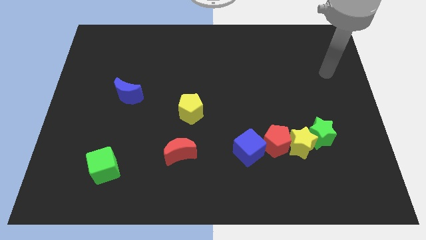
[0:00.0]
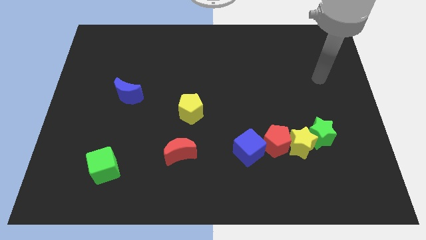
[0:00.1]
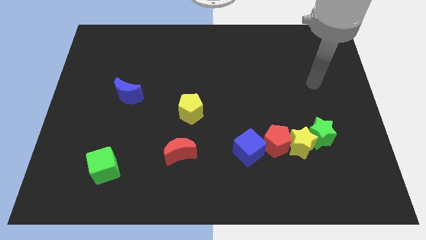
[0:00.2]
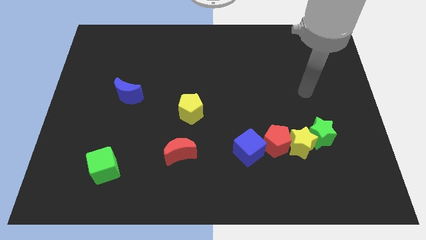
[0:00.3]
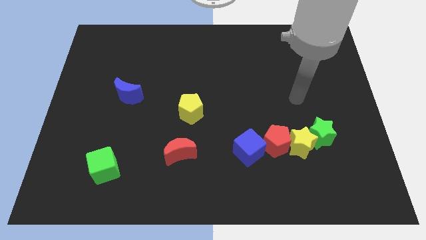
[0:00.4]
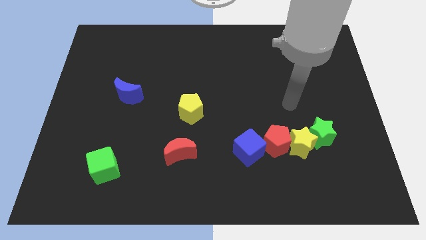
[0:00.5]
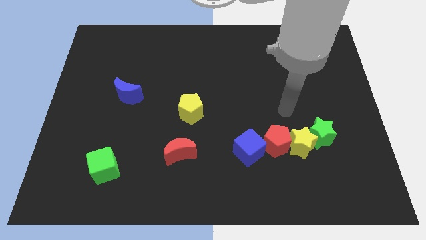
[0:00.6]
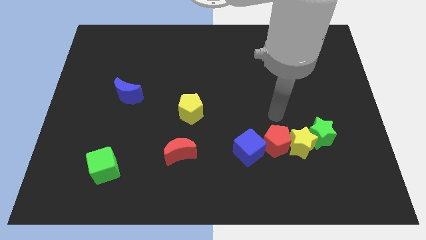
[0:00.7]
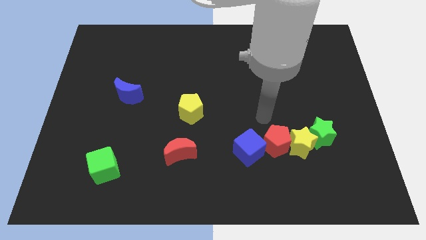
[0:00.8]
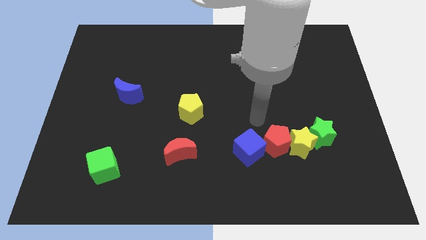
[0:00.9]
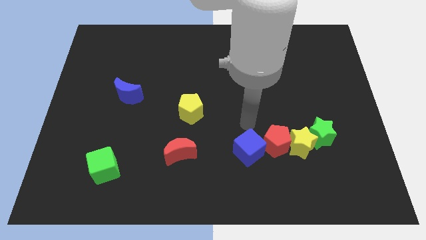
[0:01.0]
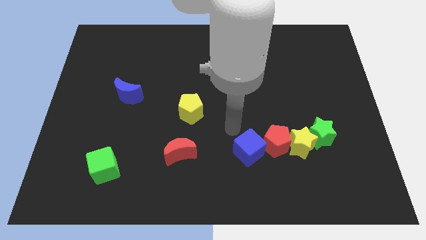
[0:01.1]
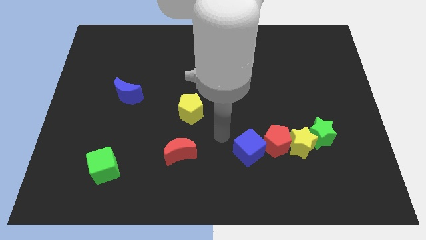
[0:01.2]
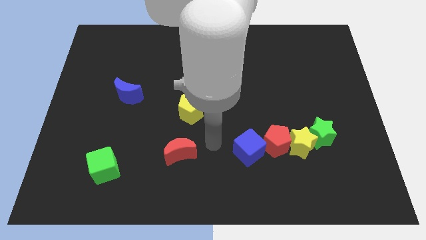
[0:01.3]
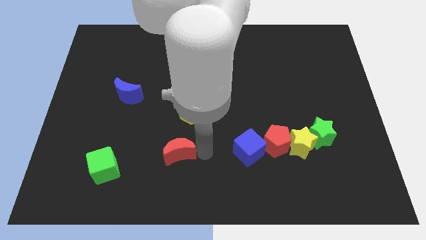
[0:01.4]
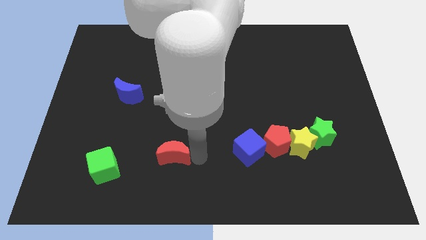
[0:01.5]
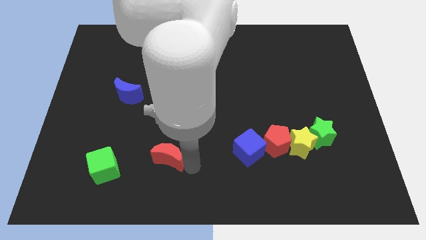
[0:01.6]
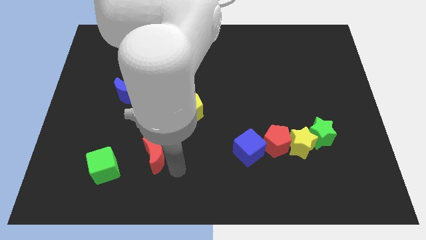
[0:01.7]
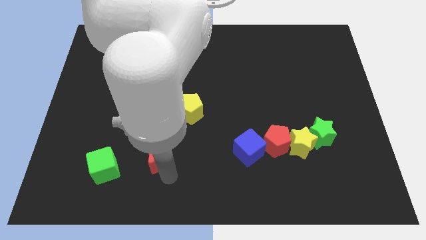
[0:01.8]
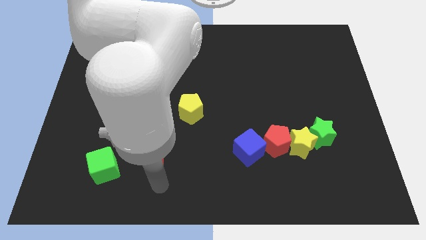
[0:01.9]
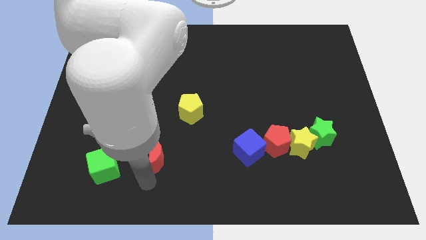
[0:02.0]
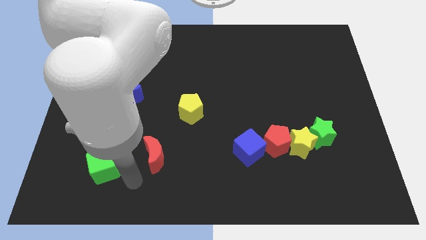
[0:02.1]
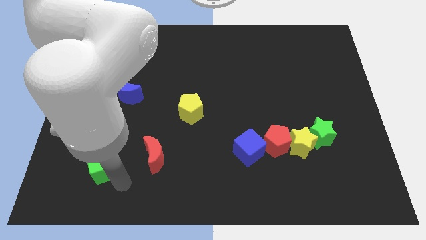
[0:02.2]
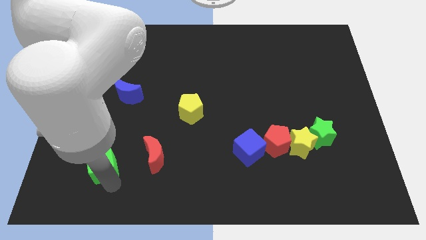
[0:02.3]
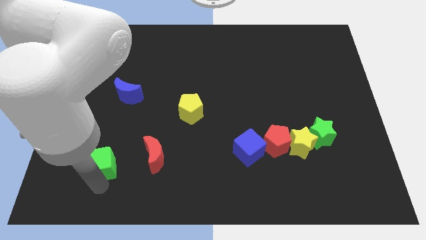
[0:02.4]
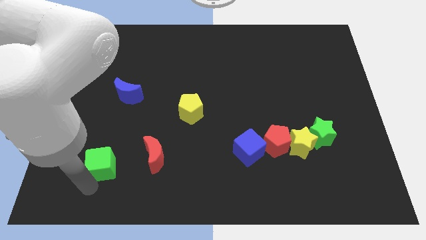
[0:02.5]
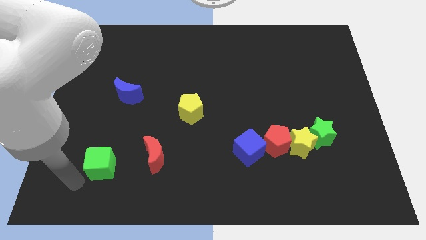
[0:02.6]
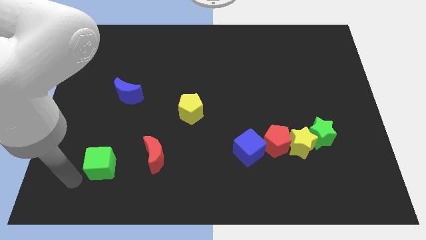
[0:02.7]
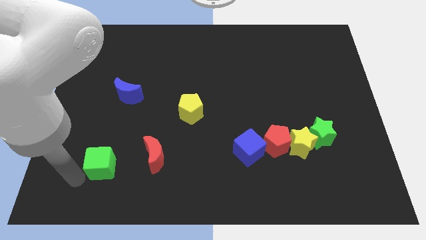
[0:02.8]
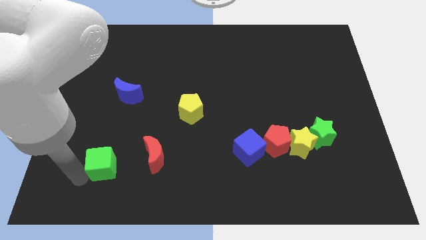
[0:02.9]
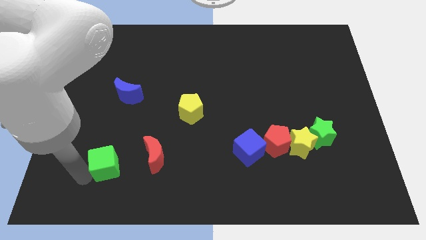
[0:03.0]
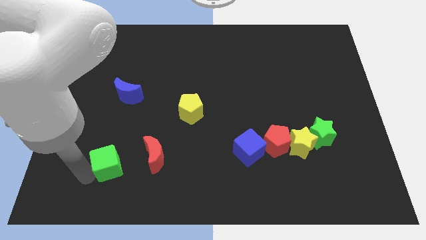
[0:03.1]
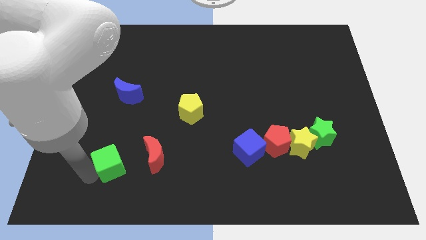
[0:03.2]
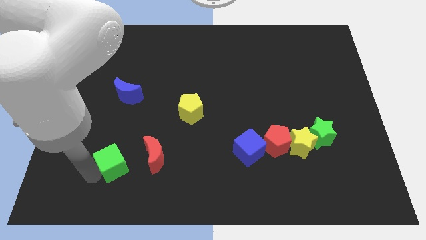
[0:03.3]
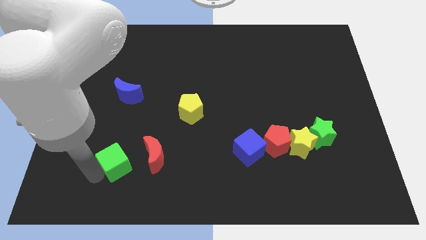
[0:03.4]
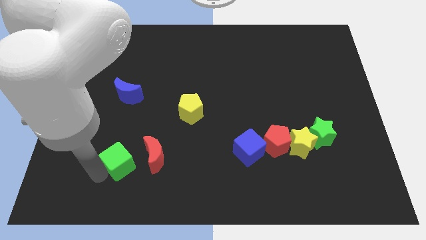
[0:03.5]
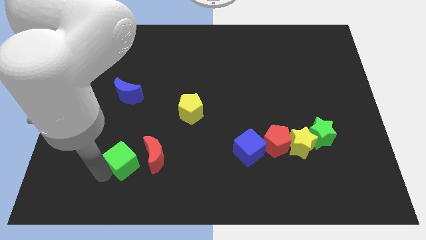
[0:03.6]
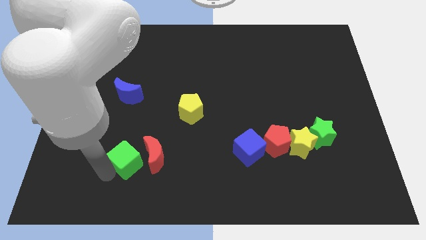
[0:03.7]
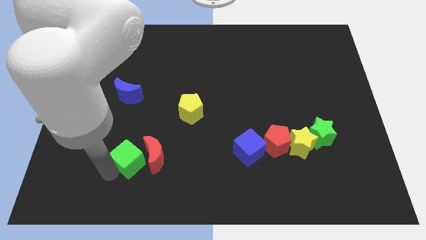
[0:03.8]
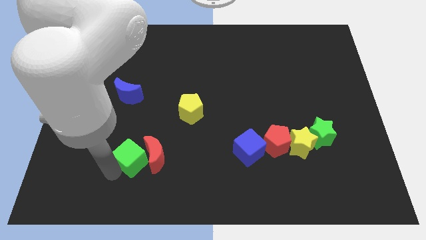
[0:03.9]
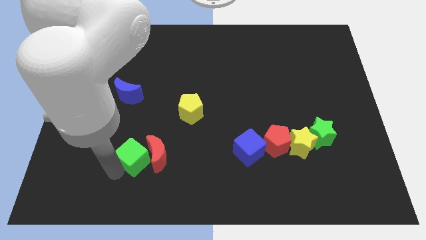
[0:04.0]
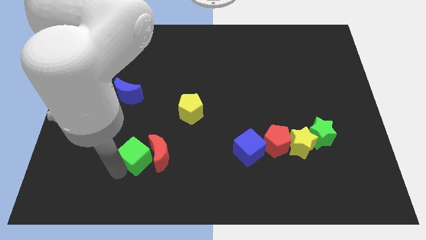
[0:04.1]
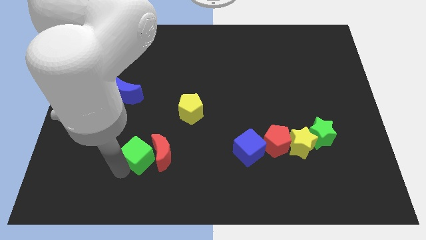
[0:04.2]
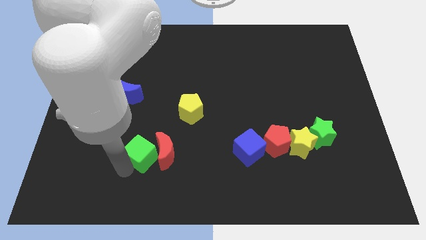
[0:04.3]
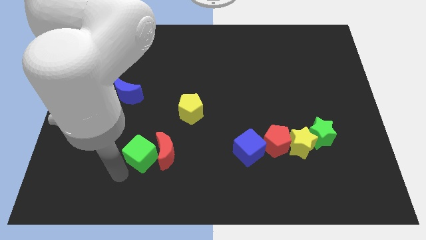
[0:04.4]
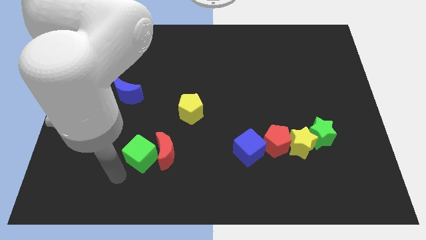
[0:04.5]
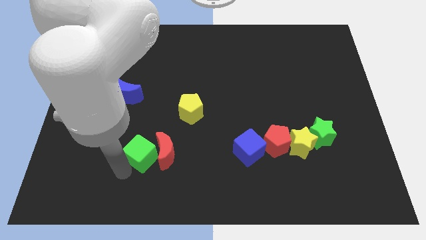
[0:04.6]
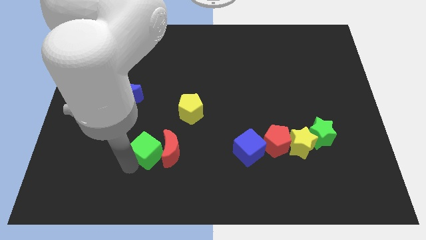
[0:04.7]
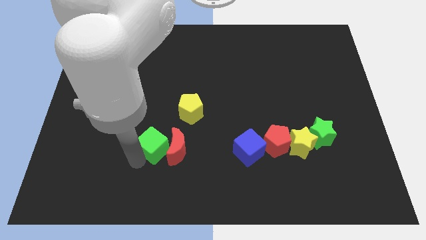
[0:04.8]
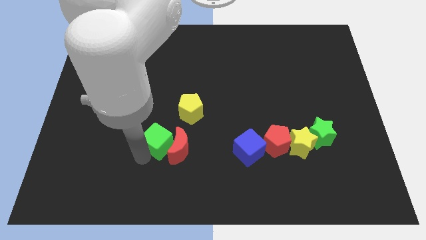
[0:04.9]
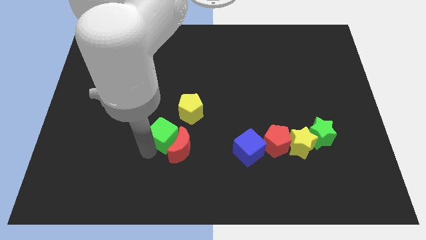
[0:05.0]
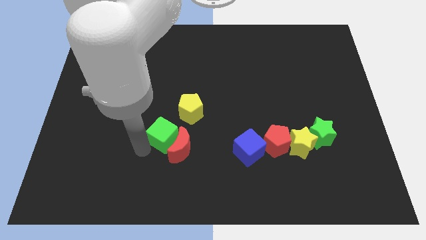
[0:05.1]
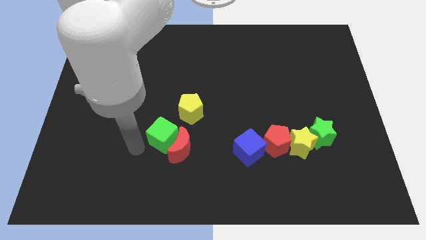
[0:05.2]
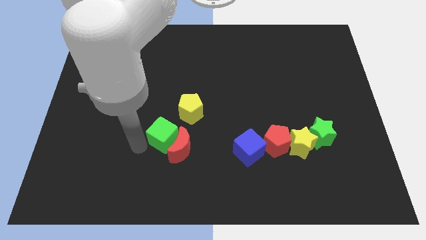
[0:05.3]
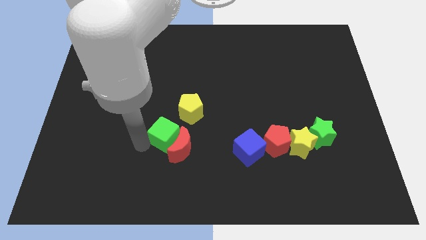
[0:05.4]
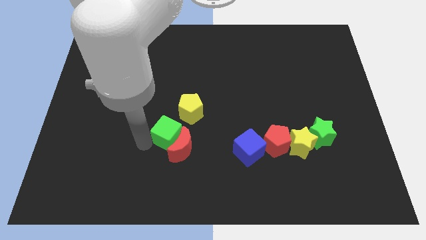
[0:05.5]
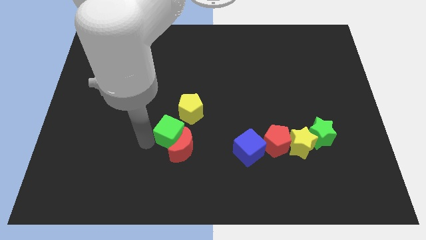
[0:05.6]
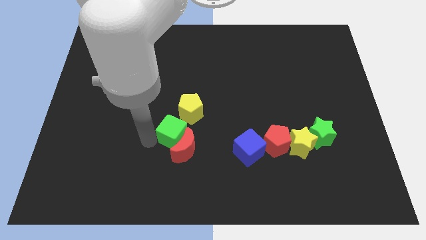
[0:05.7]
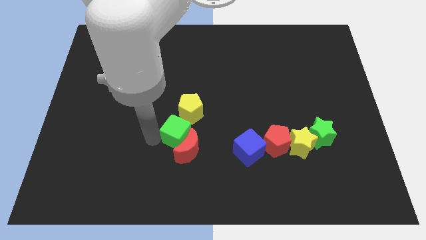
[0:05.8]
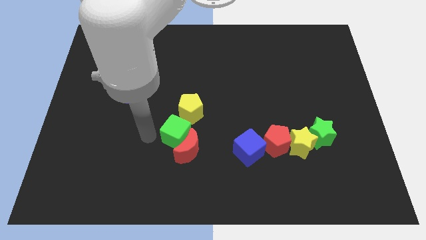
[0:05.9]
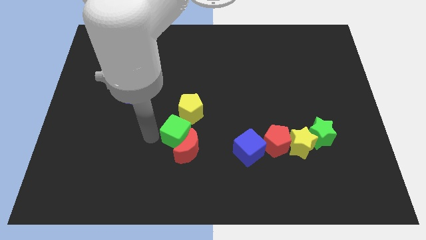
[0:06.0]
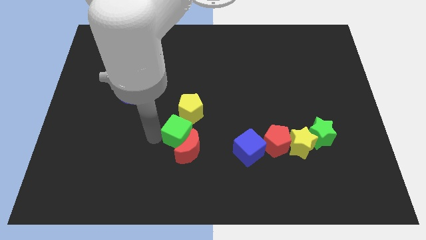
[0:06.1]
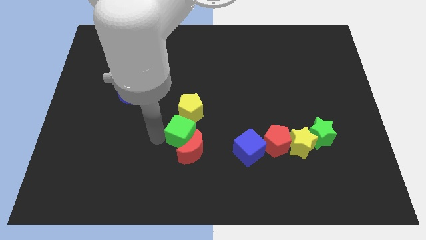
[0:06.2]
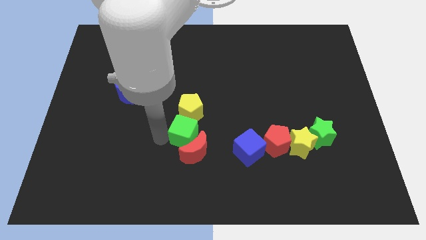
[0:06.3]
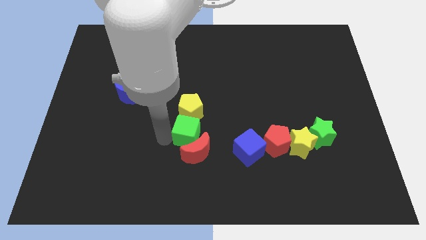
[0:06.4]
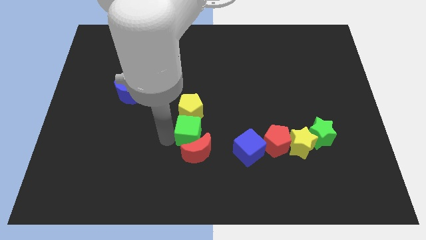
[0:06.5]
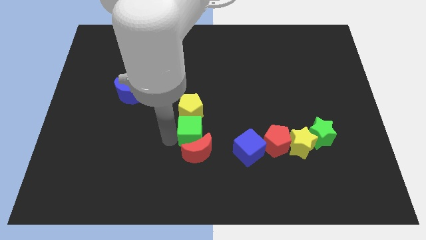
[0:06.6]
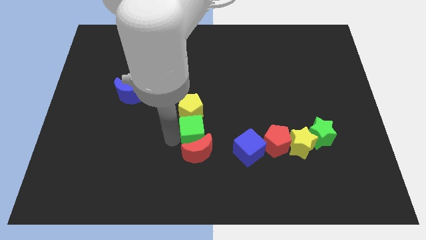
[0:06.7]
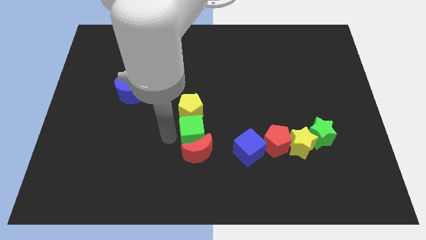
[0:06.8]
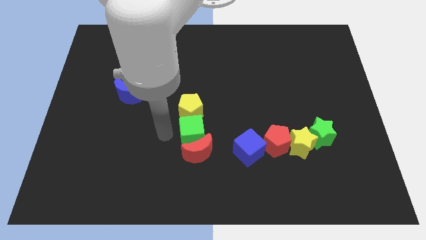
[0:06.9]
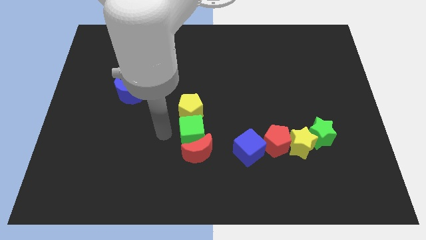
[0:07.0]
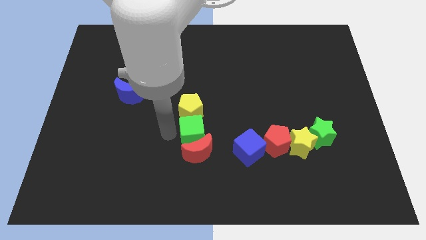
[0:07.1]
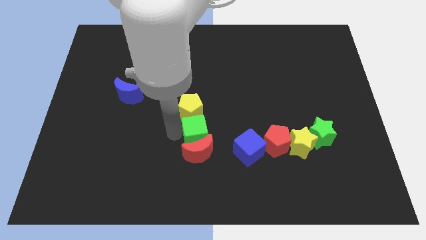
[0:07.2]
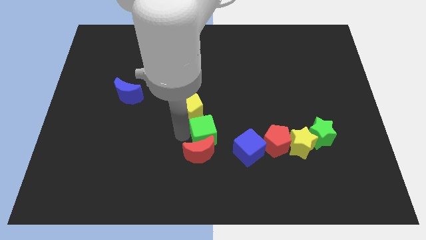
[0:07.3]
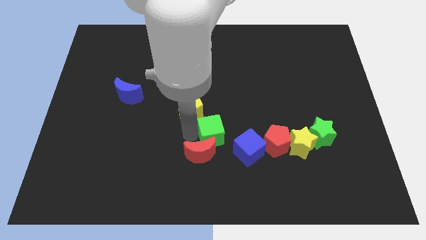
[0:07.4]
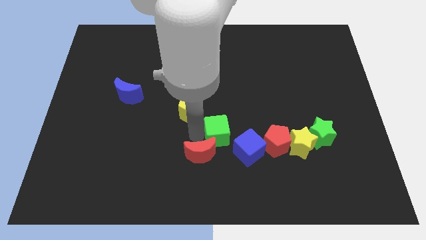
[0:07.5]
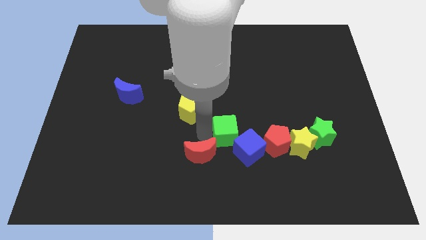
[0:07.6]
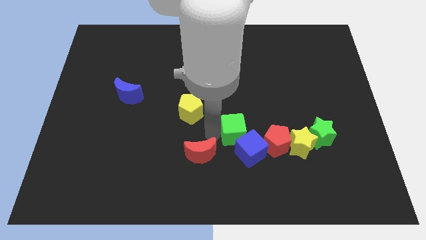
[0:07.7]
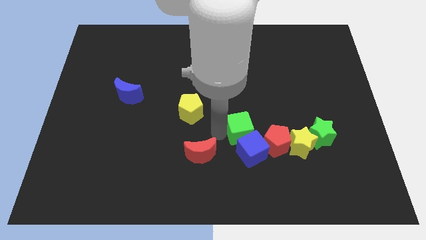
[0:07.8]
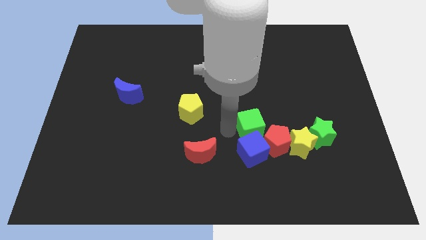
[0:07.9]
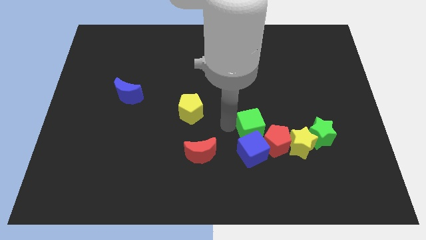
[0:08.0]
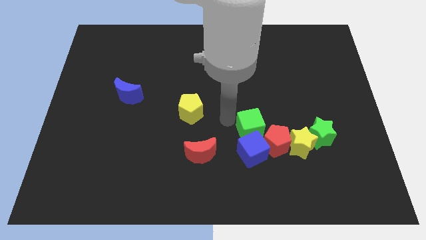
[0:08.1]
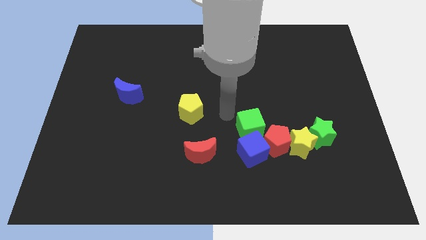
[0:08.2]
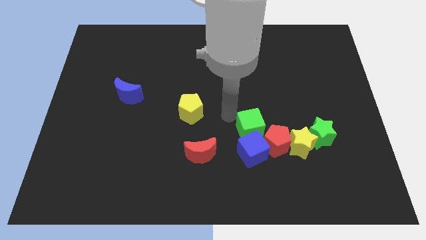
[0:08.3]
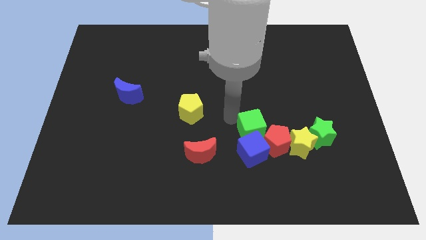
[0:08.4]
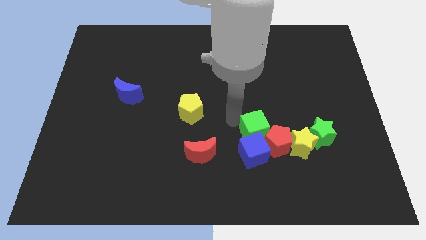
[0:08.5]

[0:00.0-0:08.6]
slide the green cube next to the red pentagon
